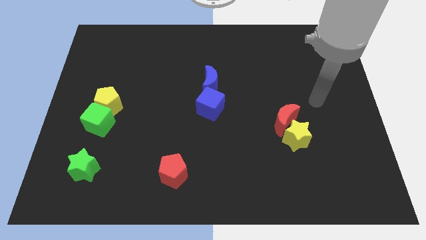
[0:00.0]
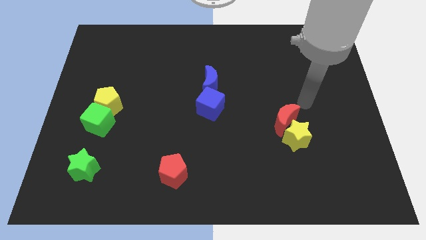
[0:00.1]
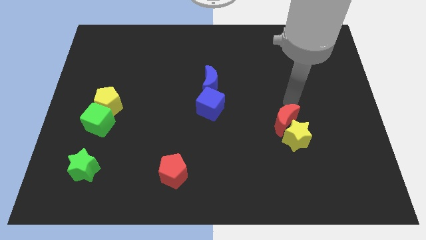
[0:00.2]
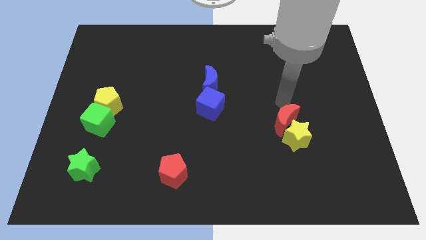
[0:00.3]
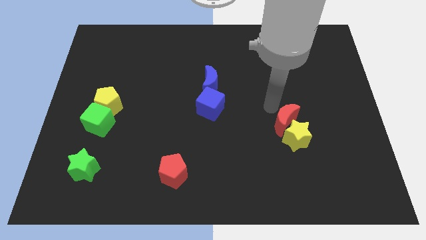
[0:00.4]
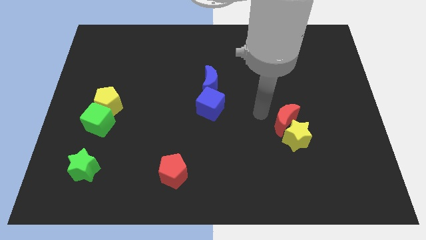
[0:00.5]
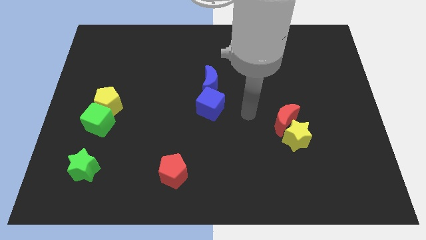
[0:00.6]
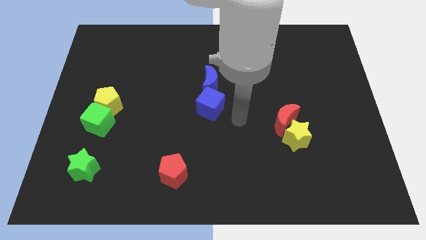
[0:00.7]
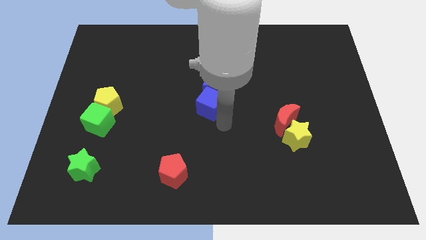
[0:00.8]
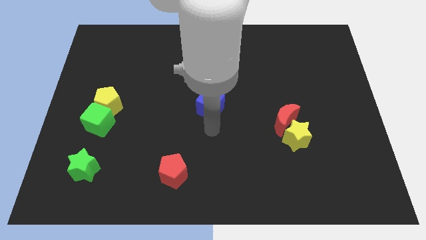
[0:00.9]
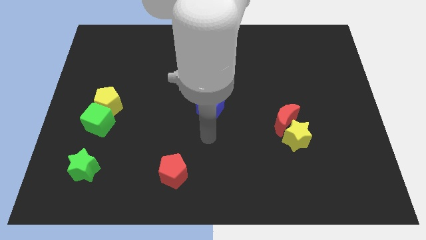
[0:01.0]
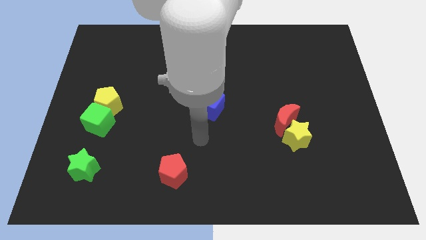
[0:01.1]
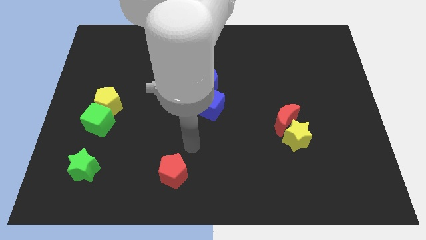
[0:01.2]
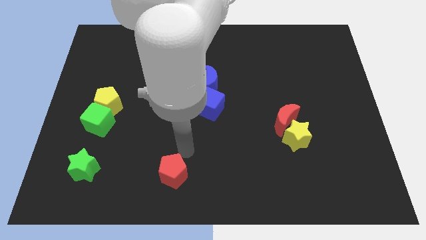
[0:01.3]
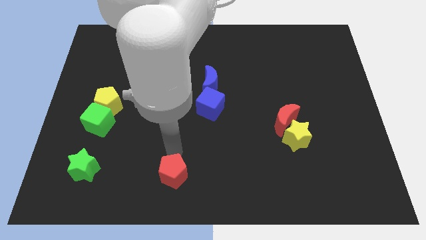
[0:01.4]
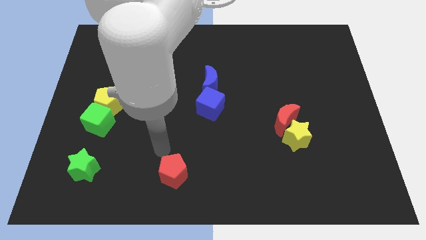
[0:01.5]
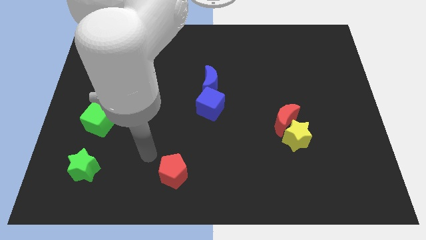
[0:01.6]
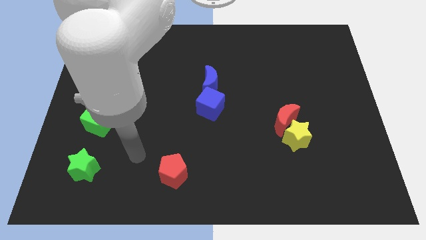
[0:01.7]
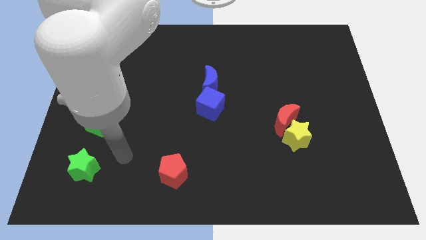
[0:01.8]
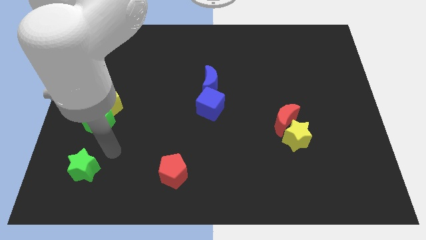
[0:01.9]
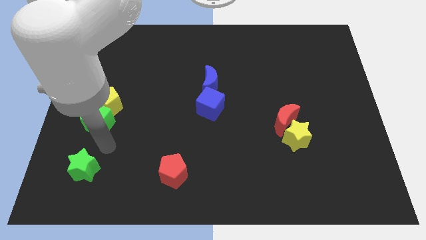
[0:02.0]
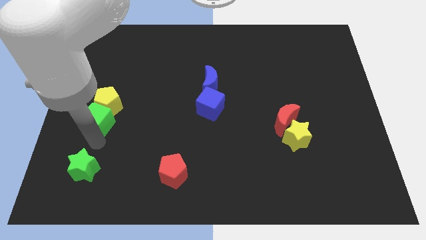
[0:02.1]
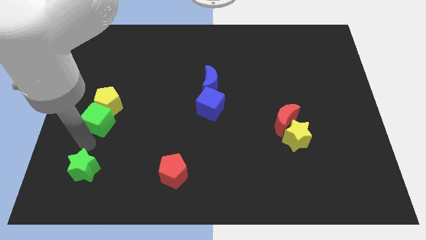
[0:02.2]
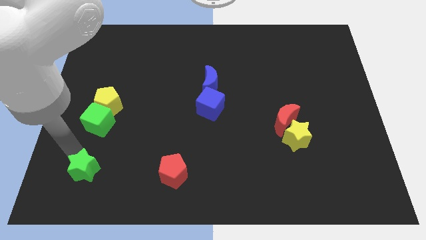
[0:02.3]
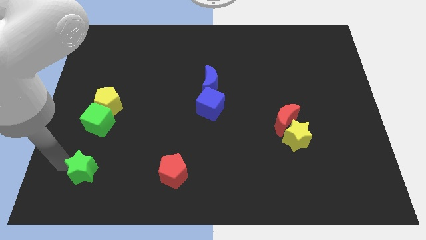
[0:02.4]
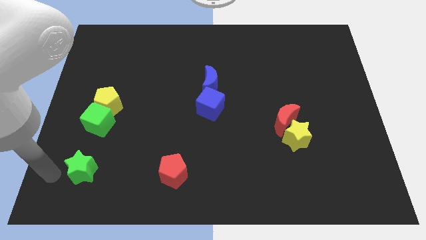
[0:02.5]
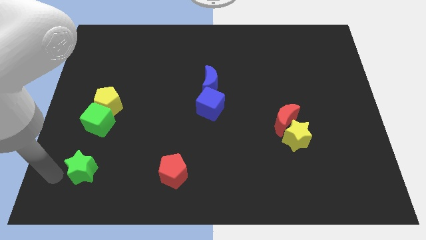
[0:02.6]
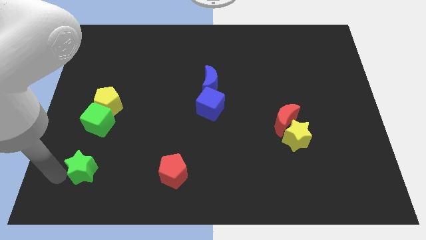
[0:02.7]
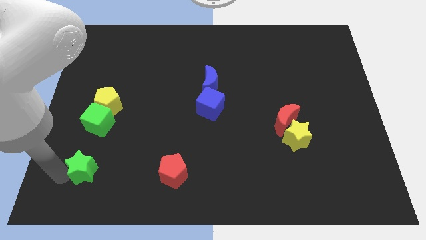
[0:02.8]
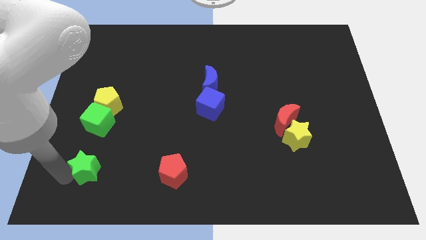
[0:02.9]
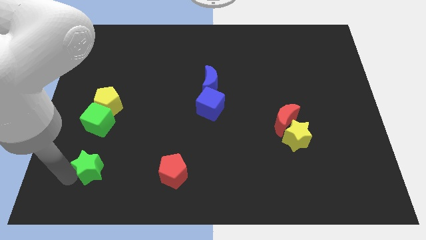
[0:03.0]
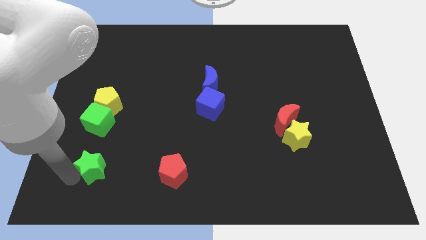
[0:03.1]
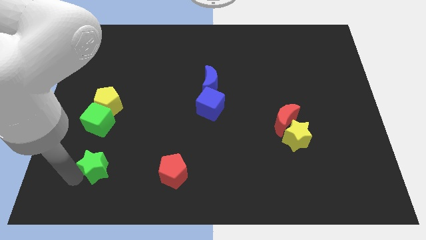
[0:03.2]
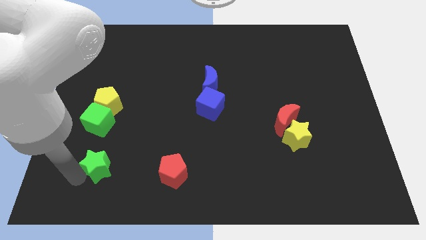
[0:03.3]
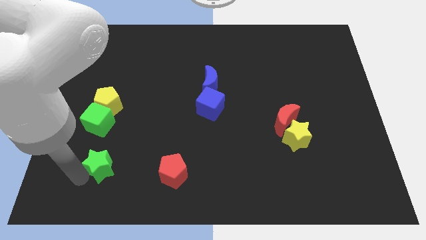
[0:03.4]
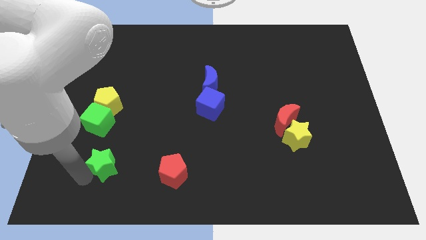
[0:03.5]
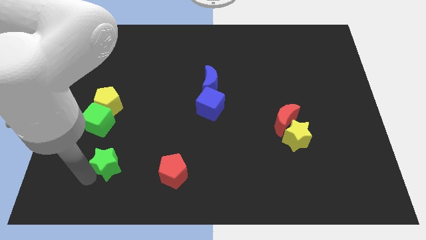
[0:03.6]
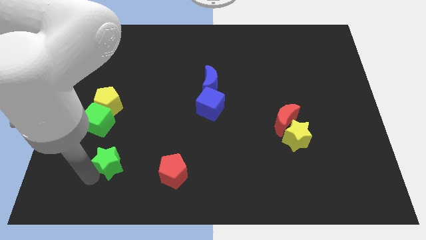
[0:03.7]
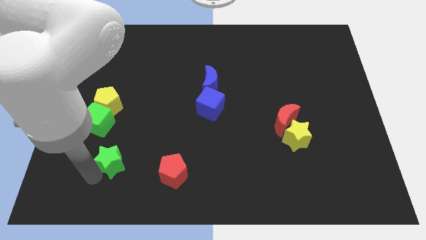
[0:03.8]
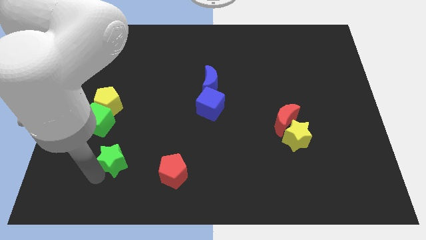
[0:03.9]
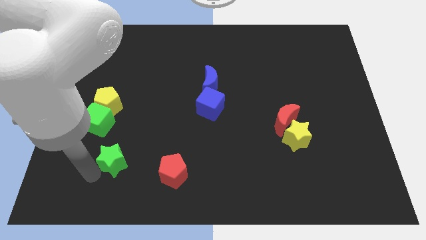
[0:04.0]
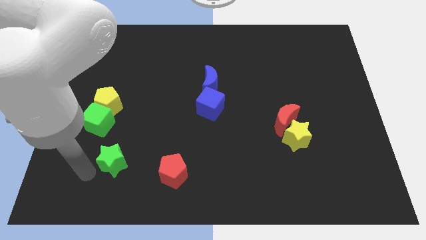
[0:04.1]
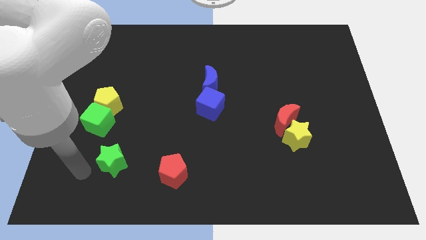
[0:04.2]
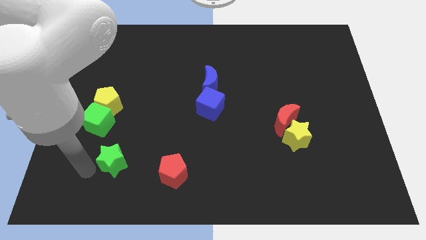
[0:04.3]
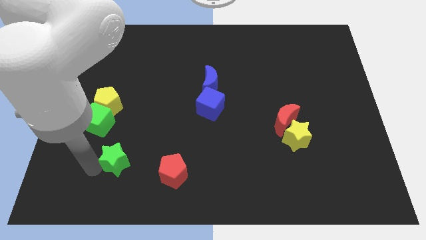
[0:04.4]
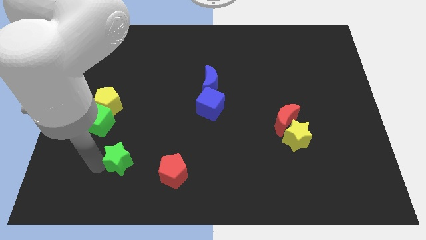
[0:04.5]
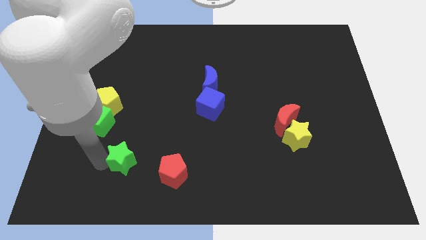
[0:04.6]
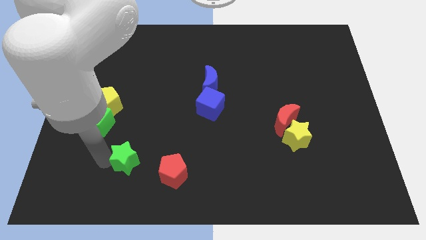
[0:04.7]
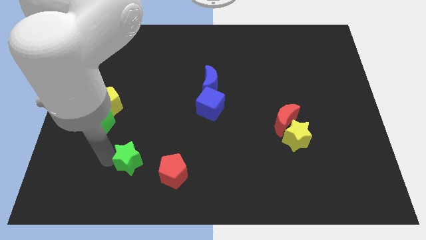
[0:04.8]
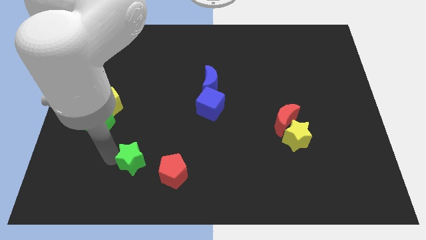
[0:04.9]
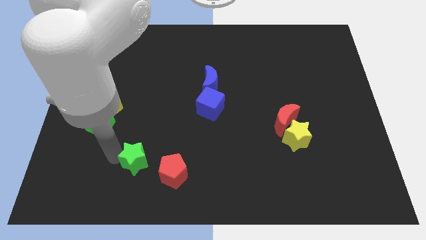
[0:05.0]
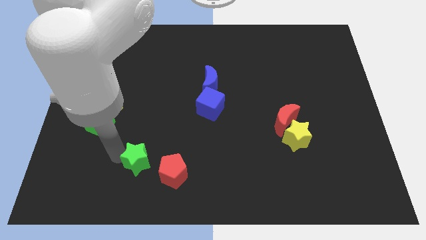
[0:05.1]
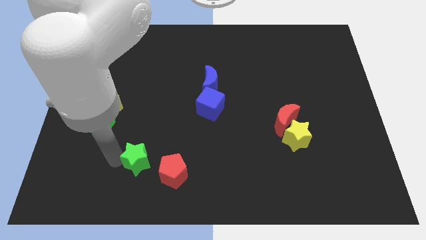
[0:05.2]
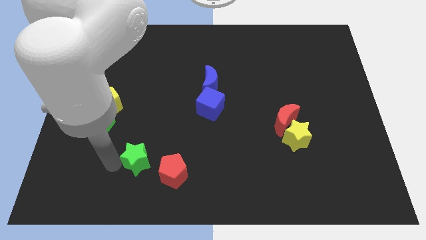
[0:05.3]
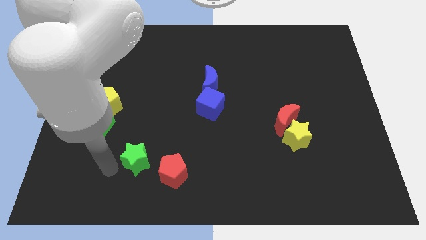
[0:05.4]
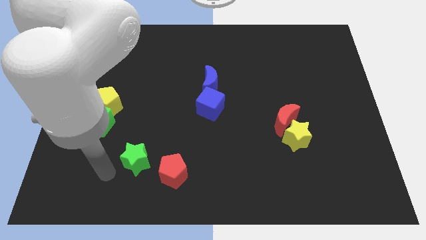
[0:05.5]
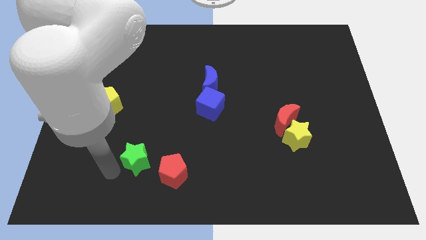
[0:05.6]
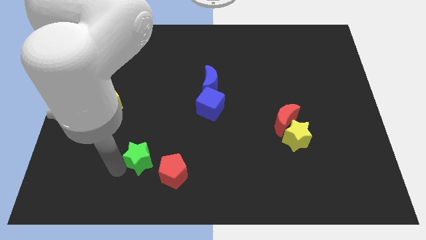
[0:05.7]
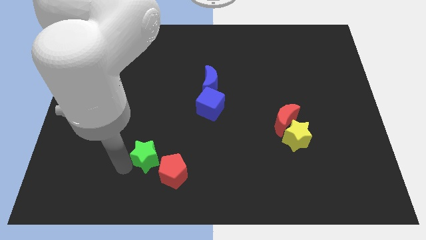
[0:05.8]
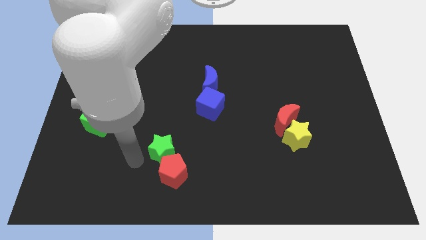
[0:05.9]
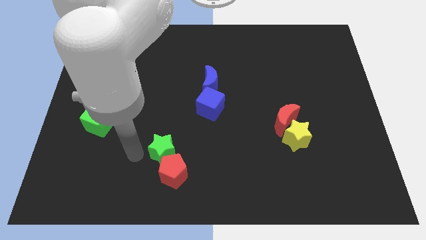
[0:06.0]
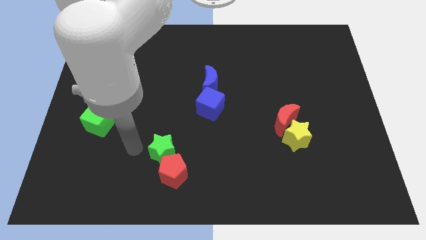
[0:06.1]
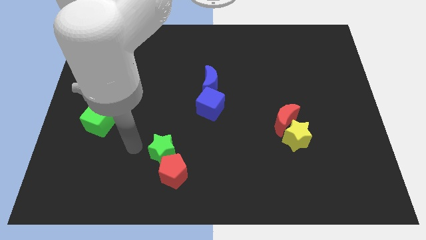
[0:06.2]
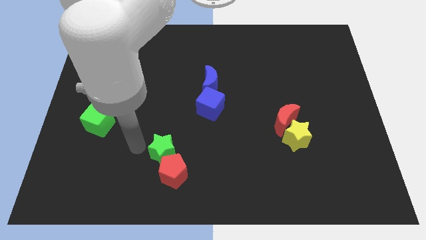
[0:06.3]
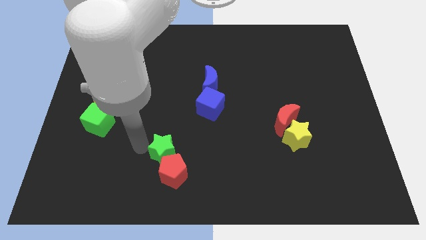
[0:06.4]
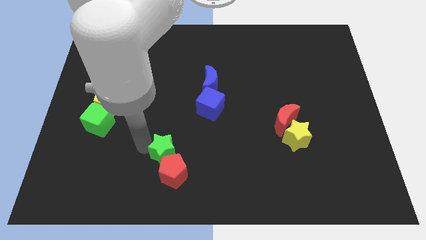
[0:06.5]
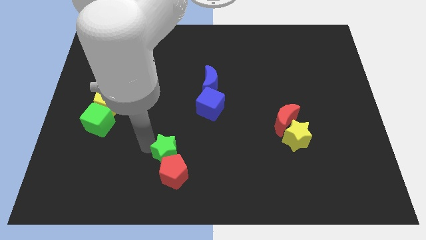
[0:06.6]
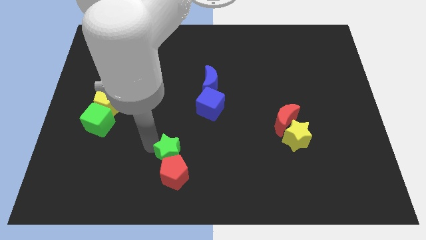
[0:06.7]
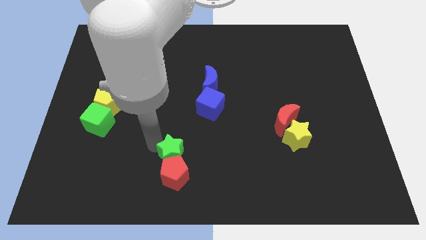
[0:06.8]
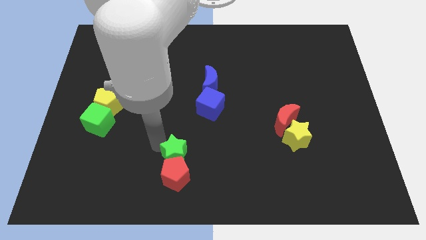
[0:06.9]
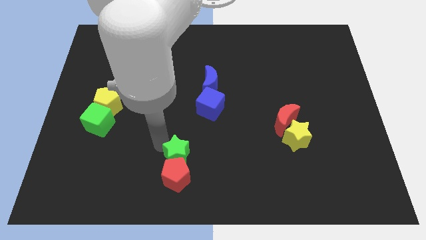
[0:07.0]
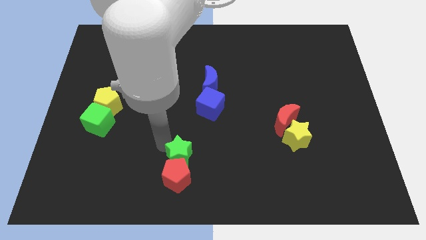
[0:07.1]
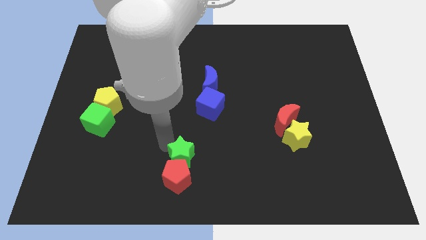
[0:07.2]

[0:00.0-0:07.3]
slide the green star right

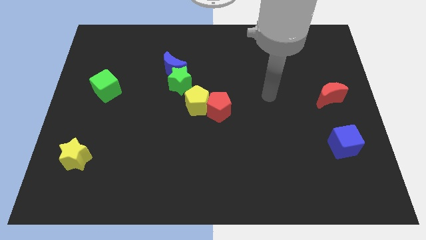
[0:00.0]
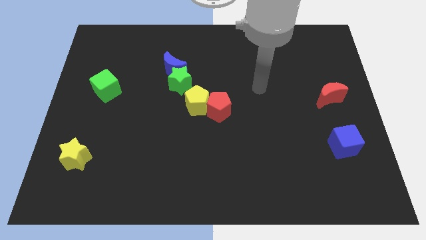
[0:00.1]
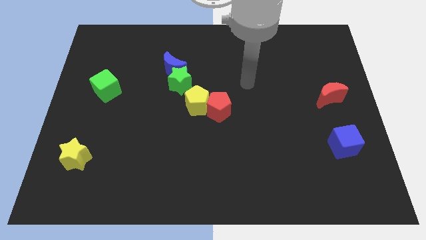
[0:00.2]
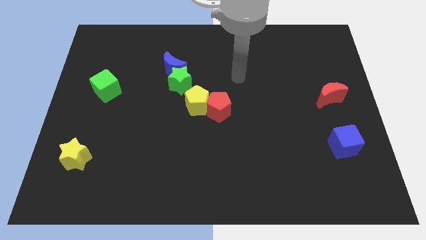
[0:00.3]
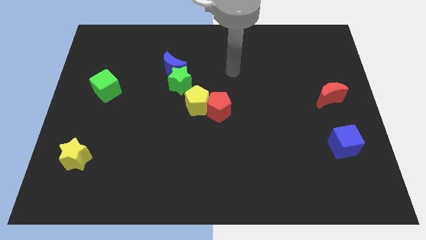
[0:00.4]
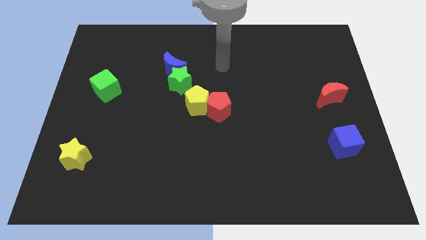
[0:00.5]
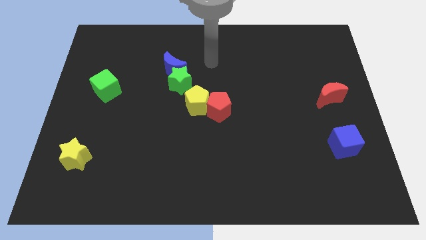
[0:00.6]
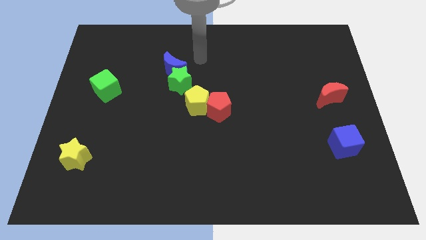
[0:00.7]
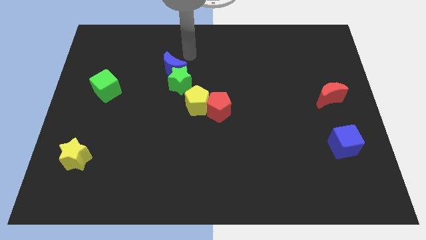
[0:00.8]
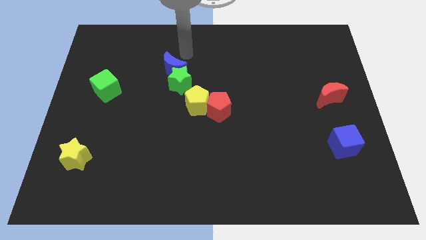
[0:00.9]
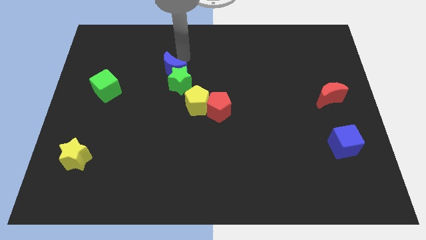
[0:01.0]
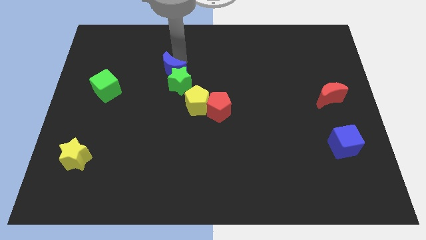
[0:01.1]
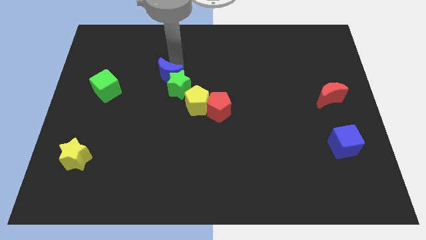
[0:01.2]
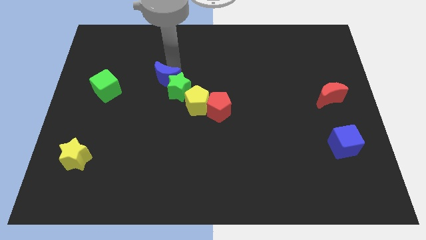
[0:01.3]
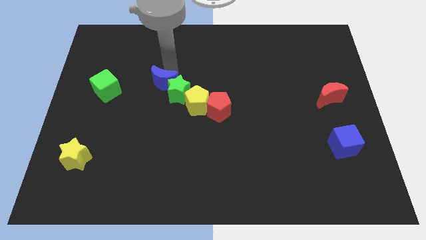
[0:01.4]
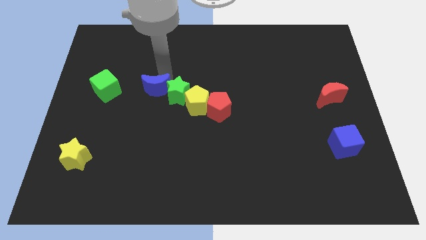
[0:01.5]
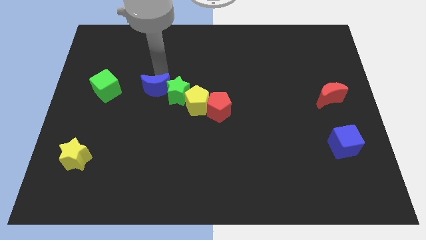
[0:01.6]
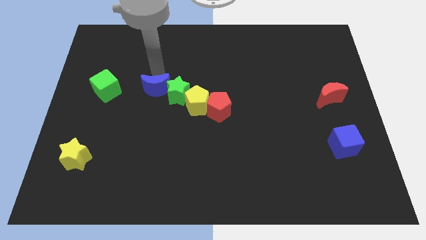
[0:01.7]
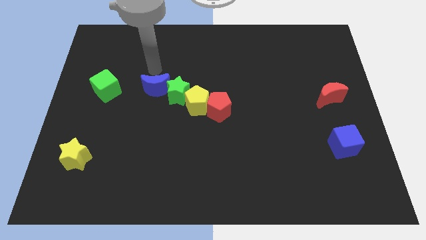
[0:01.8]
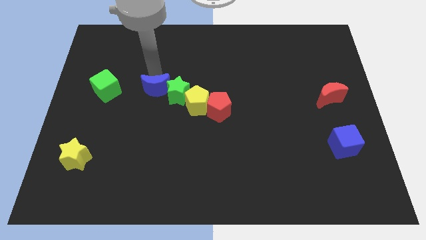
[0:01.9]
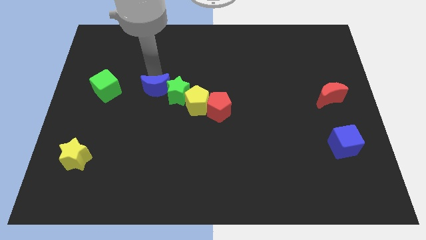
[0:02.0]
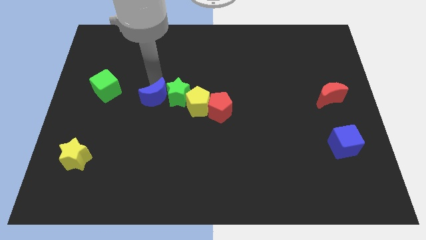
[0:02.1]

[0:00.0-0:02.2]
slightly slide the blue moon down
